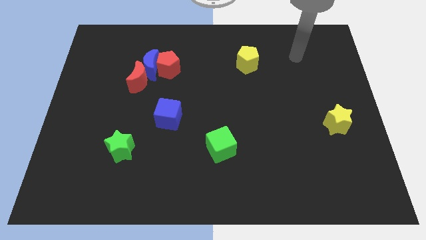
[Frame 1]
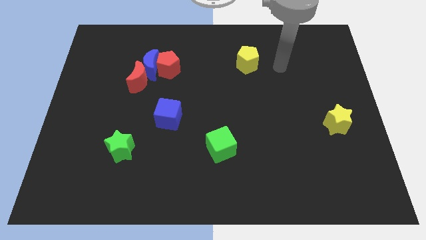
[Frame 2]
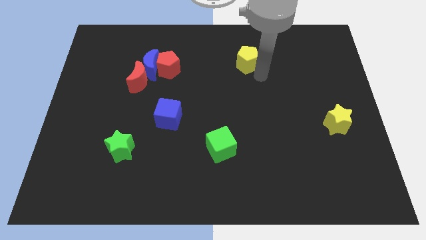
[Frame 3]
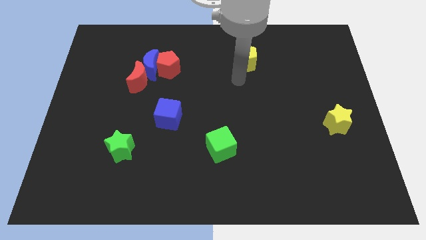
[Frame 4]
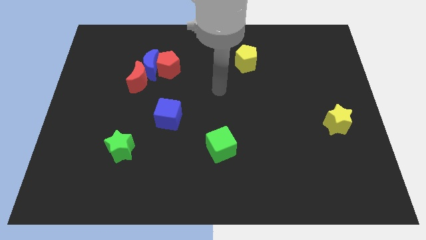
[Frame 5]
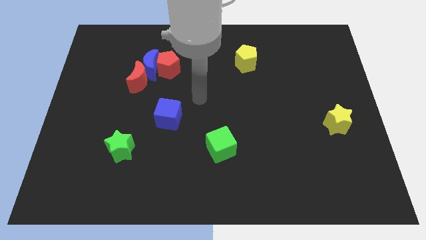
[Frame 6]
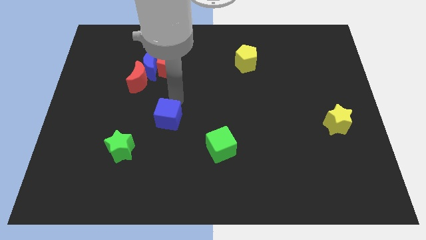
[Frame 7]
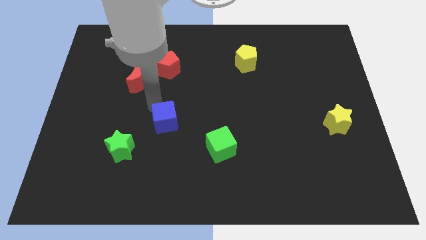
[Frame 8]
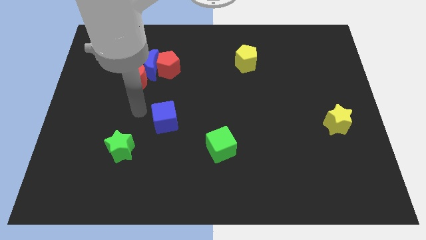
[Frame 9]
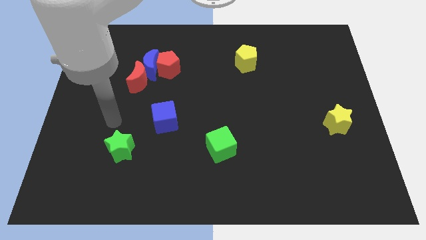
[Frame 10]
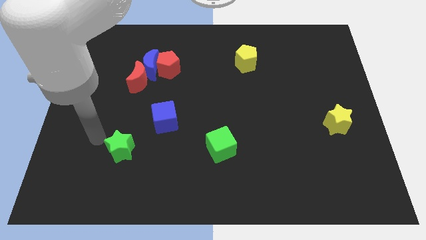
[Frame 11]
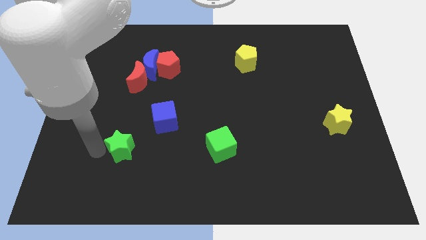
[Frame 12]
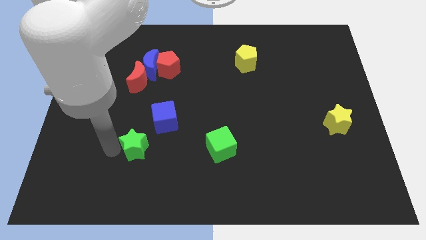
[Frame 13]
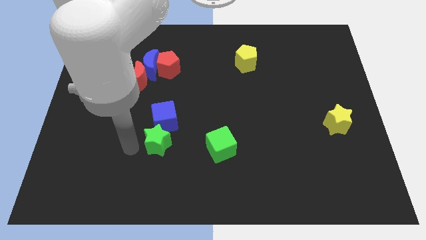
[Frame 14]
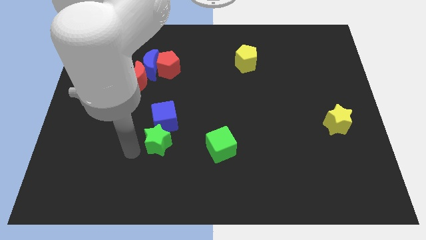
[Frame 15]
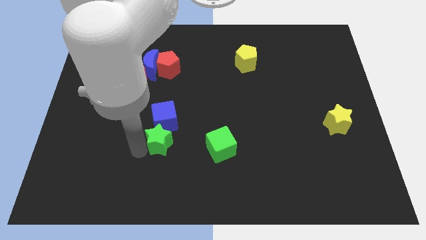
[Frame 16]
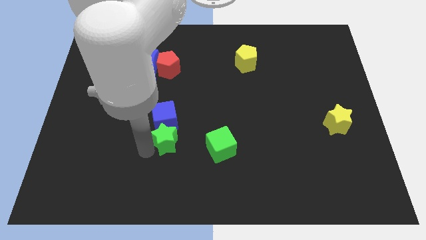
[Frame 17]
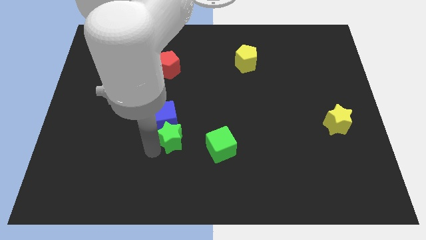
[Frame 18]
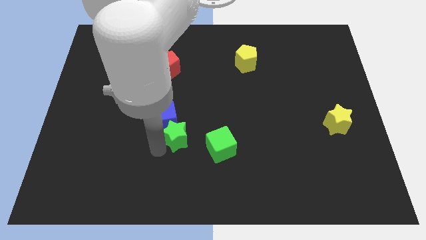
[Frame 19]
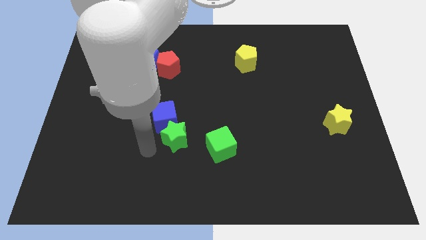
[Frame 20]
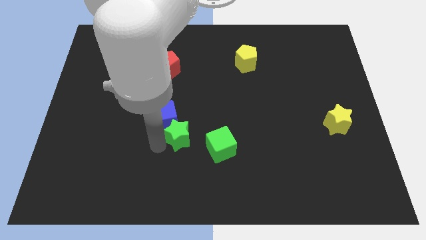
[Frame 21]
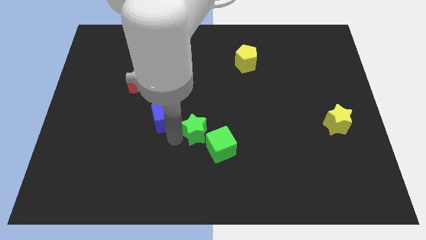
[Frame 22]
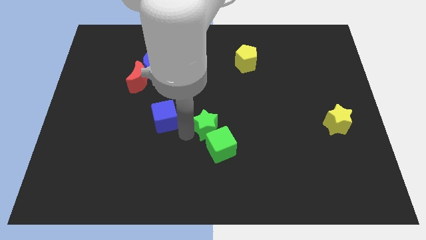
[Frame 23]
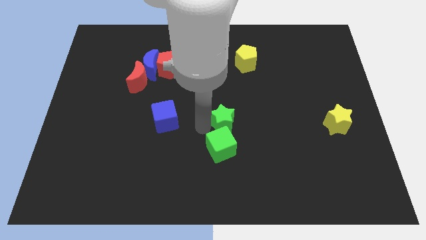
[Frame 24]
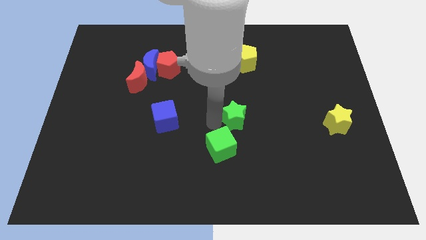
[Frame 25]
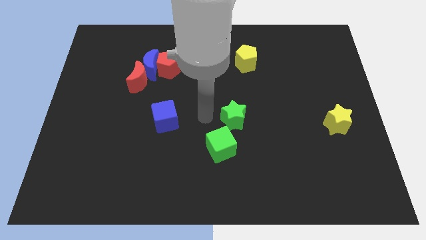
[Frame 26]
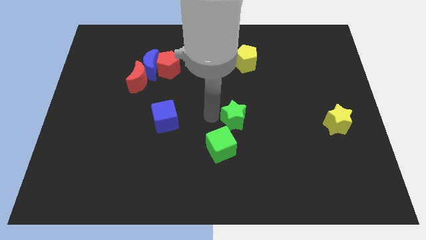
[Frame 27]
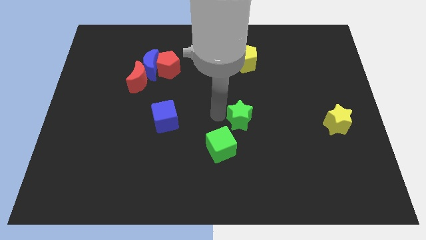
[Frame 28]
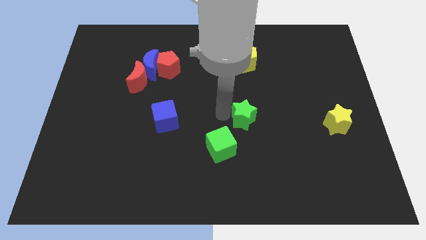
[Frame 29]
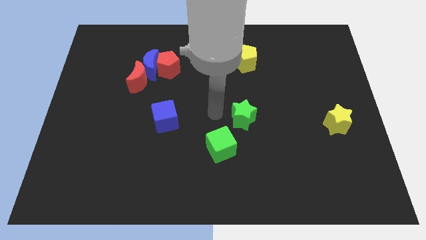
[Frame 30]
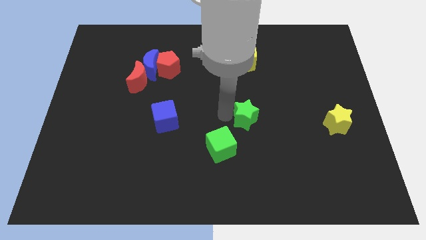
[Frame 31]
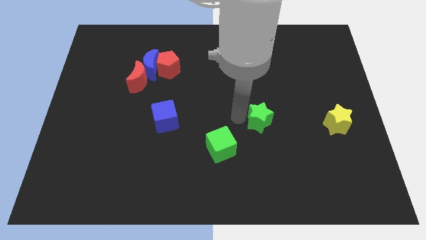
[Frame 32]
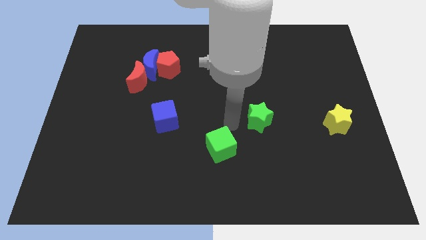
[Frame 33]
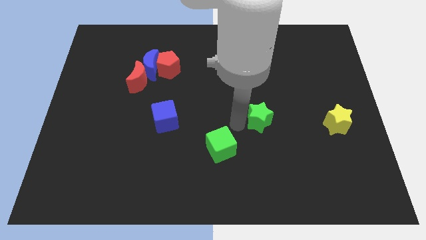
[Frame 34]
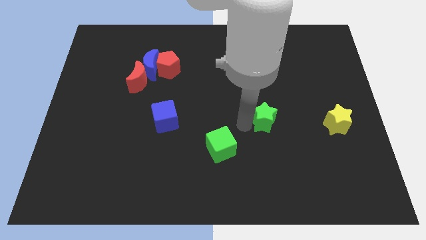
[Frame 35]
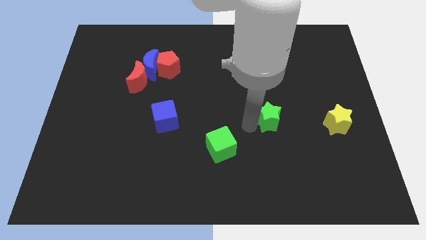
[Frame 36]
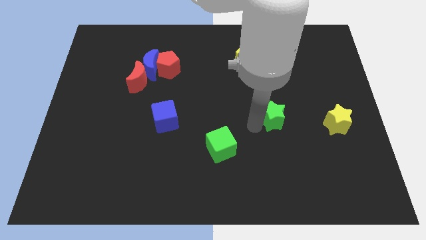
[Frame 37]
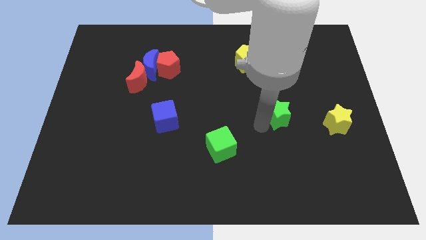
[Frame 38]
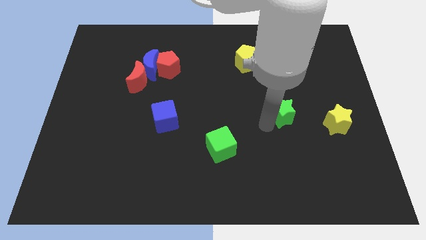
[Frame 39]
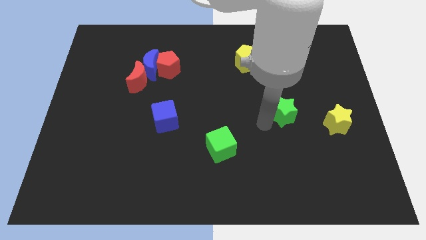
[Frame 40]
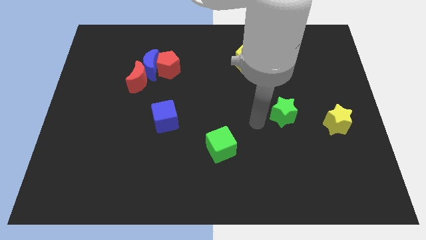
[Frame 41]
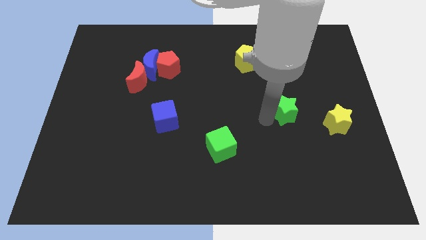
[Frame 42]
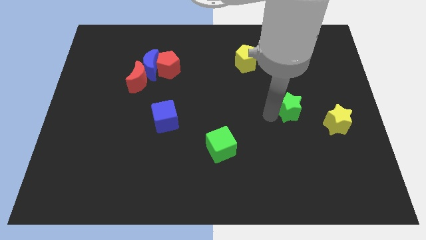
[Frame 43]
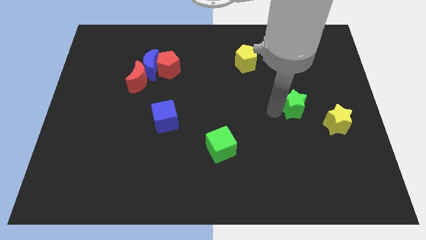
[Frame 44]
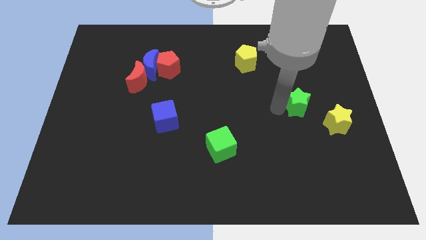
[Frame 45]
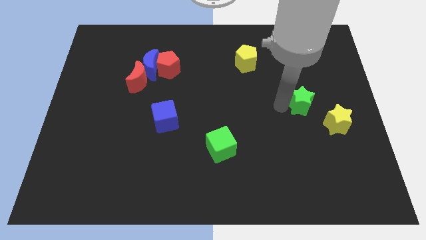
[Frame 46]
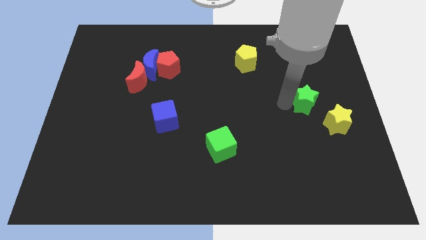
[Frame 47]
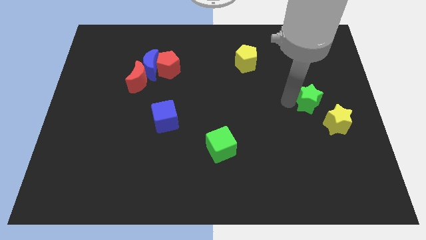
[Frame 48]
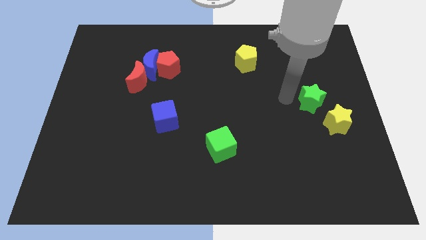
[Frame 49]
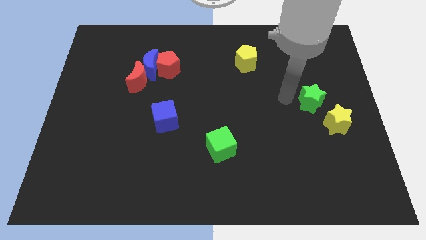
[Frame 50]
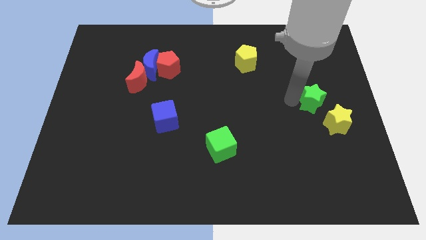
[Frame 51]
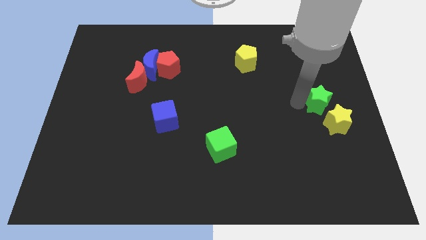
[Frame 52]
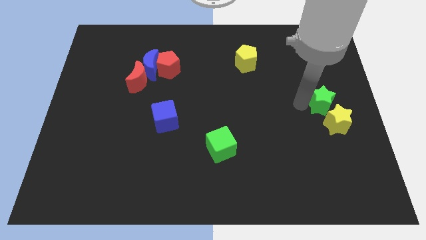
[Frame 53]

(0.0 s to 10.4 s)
put the green star to the right side of the board

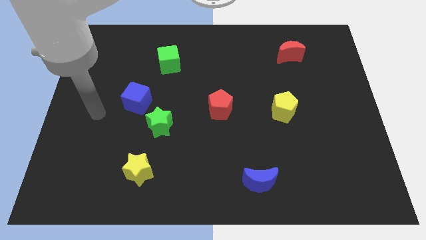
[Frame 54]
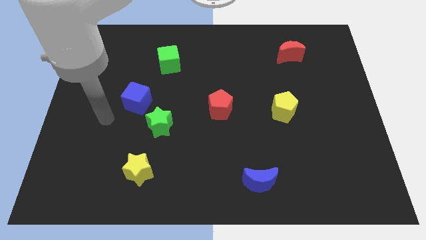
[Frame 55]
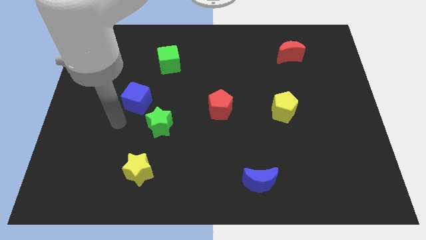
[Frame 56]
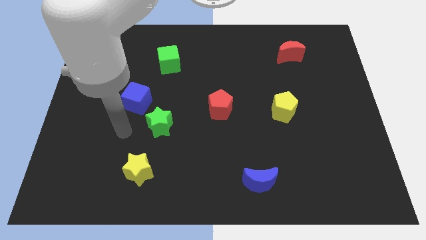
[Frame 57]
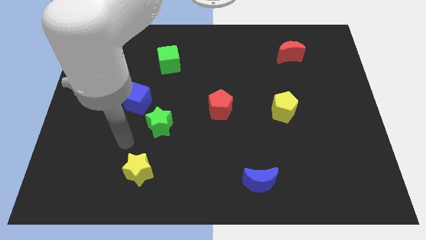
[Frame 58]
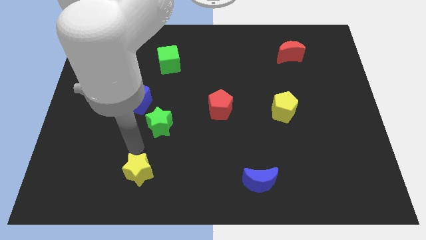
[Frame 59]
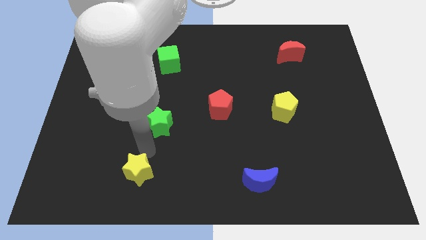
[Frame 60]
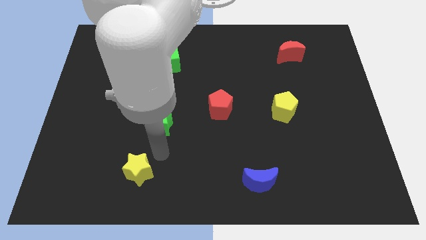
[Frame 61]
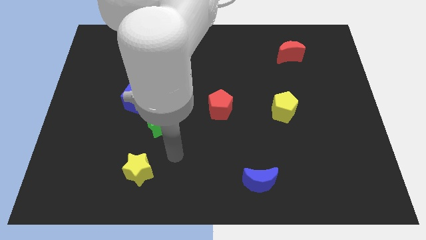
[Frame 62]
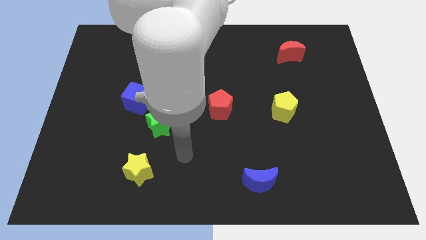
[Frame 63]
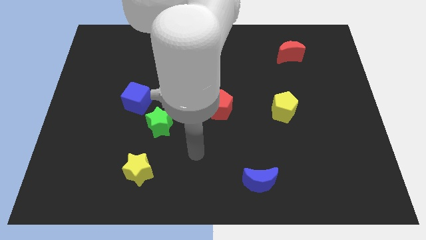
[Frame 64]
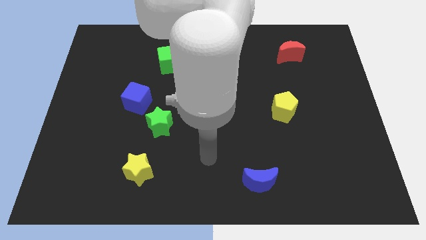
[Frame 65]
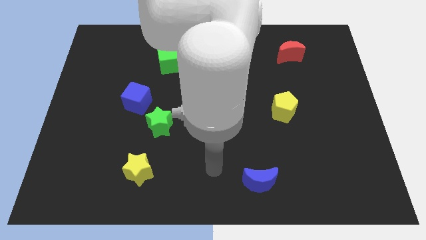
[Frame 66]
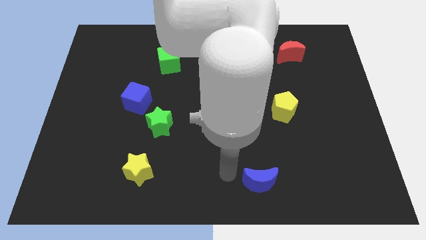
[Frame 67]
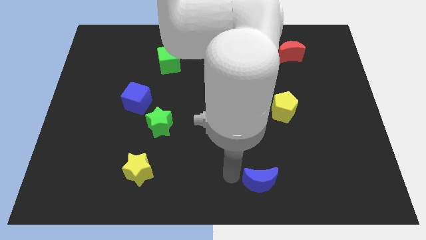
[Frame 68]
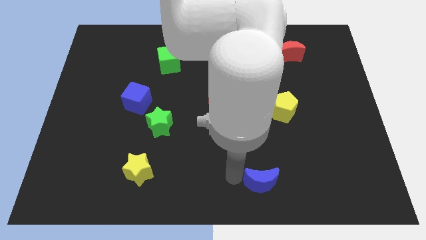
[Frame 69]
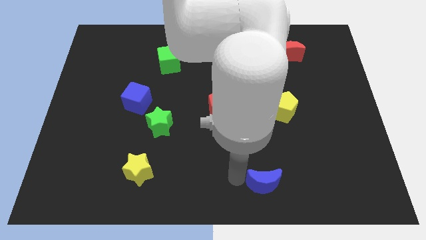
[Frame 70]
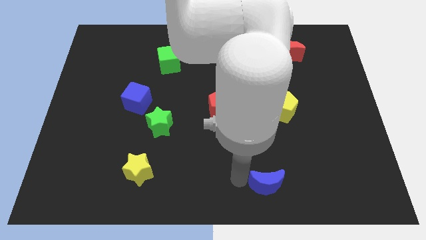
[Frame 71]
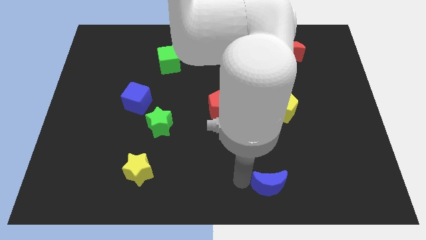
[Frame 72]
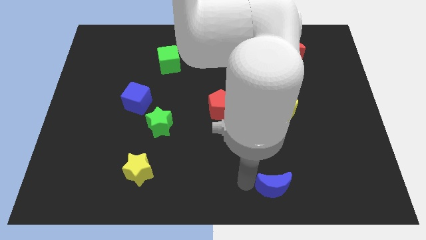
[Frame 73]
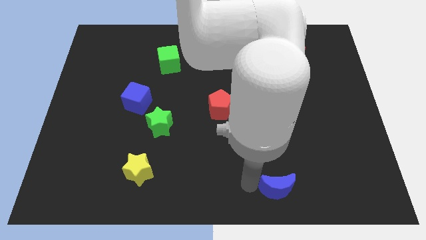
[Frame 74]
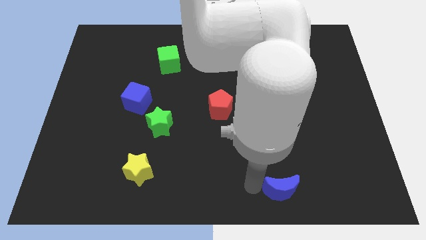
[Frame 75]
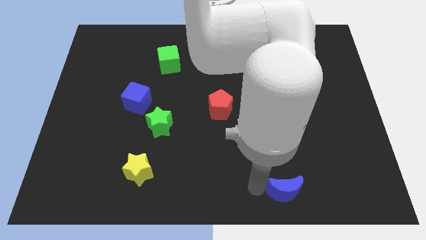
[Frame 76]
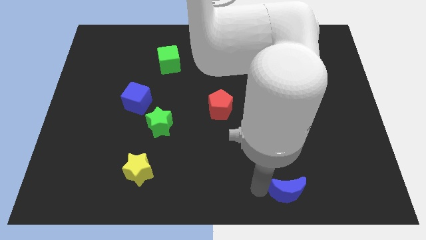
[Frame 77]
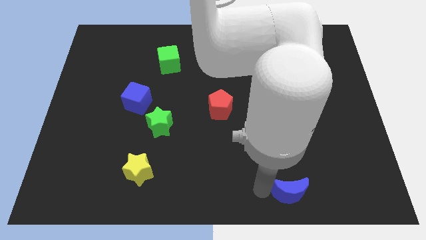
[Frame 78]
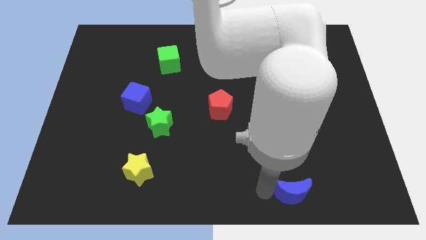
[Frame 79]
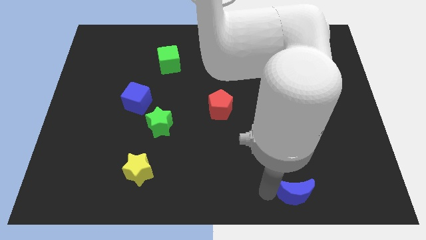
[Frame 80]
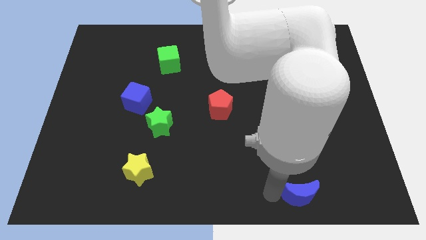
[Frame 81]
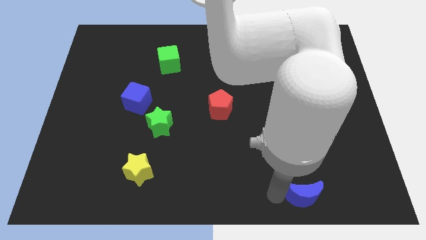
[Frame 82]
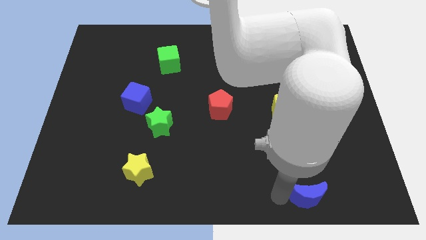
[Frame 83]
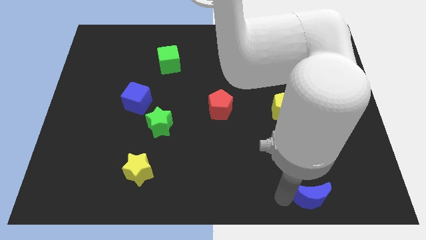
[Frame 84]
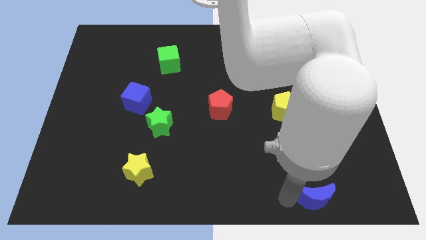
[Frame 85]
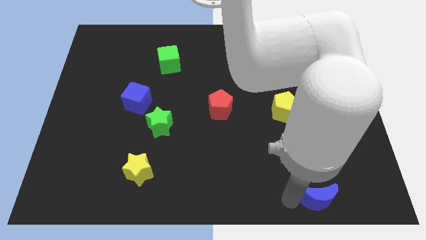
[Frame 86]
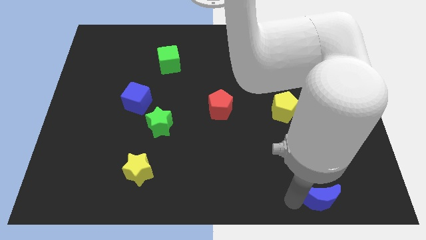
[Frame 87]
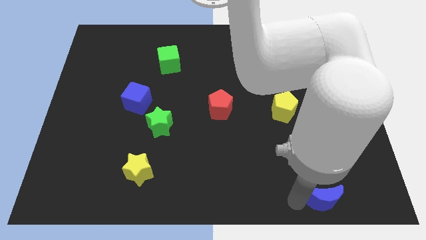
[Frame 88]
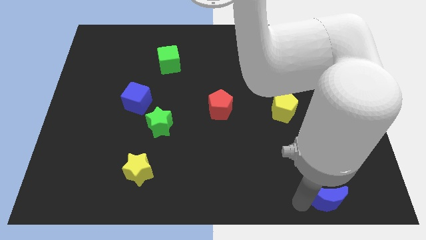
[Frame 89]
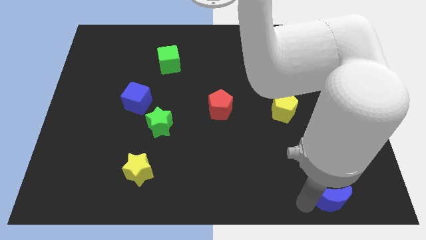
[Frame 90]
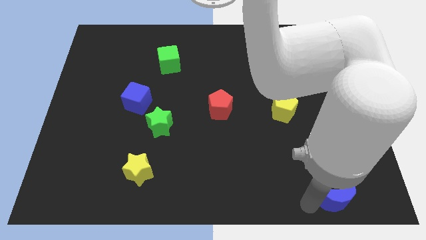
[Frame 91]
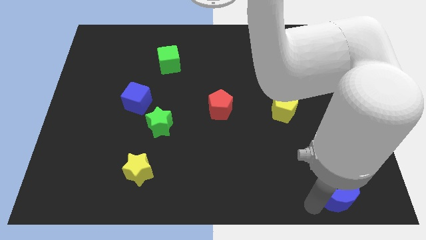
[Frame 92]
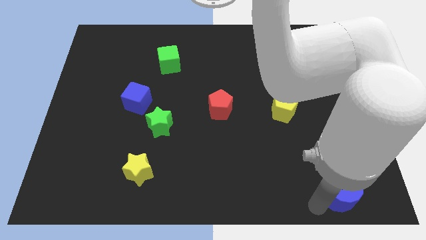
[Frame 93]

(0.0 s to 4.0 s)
move the blue moon to the bottom right corner
